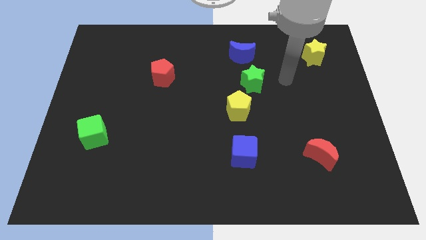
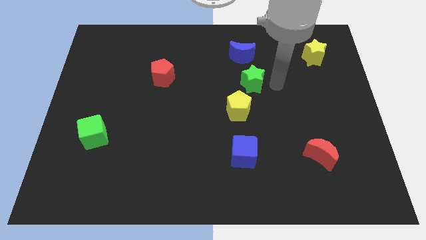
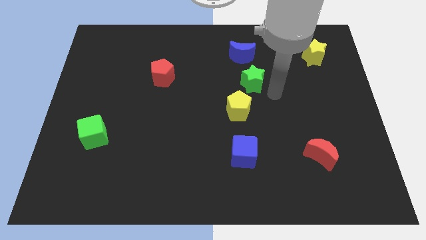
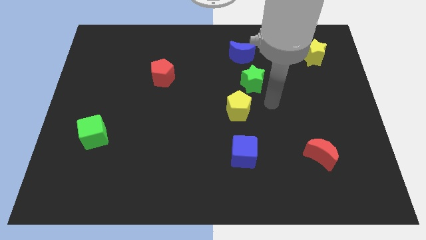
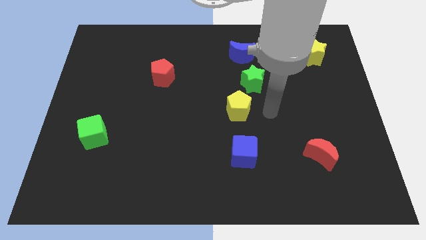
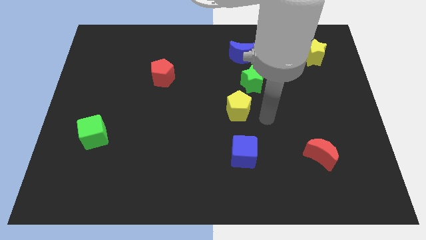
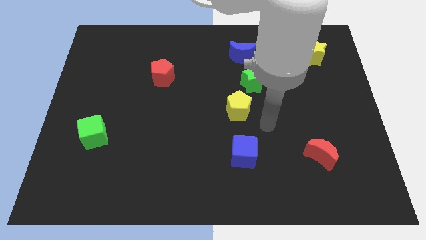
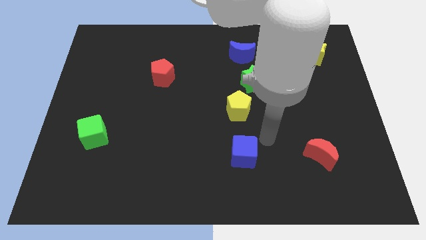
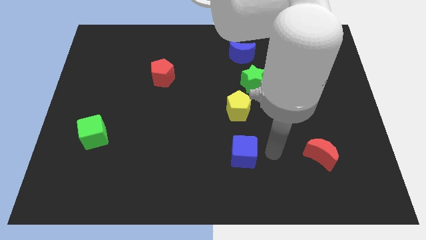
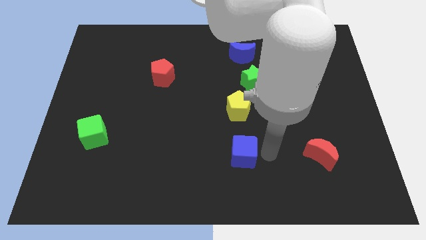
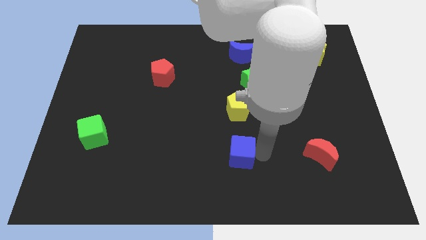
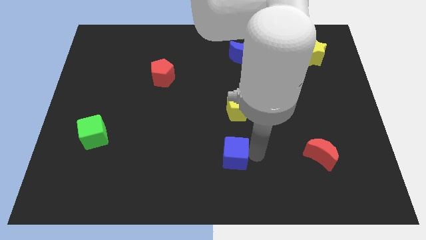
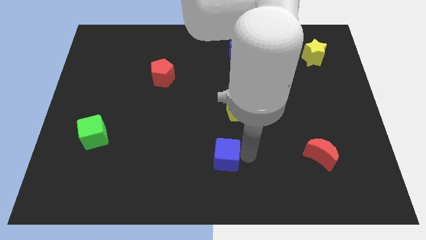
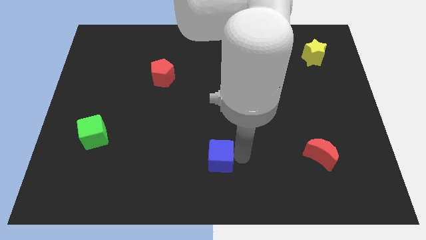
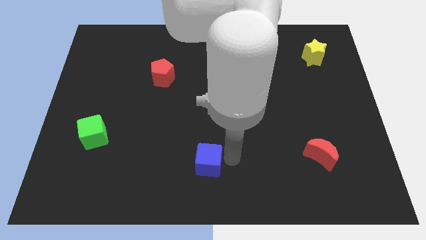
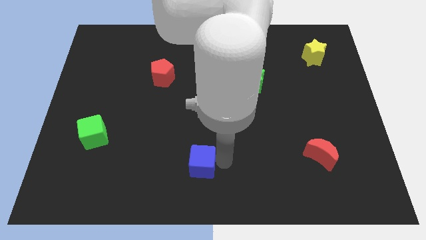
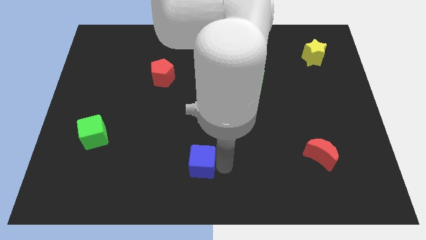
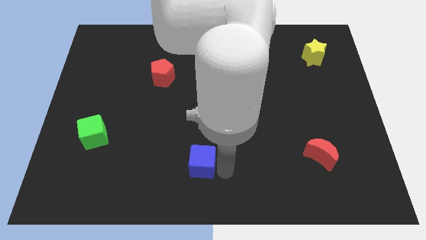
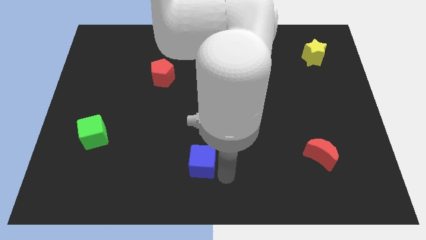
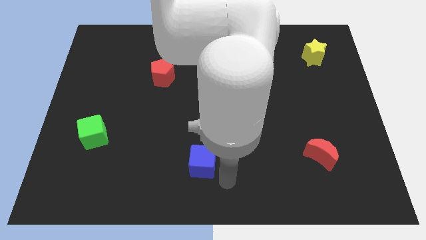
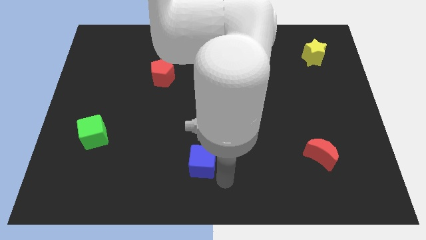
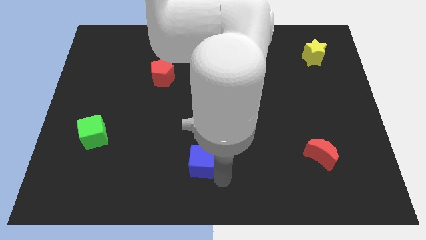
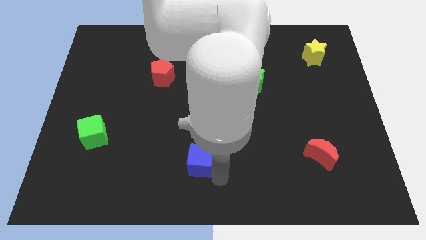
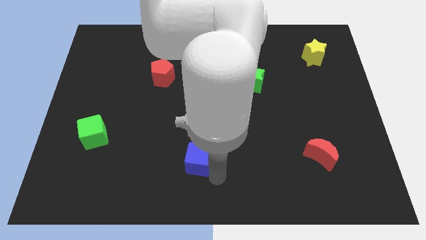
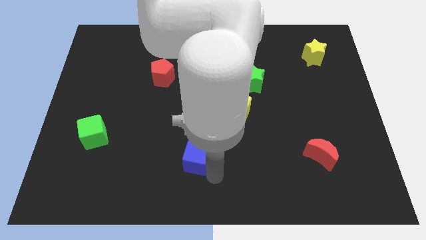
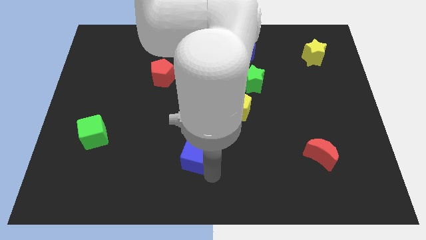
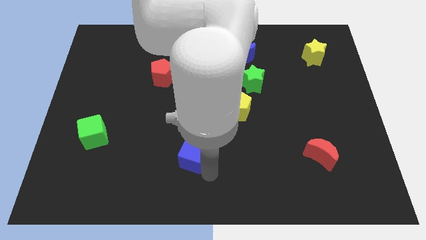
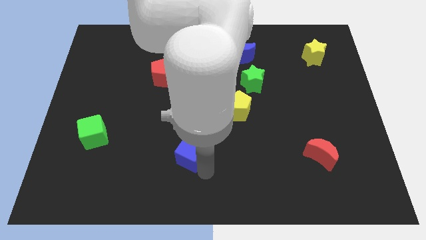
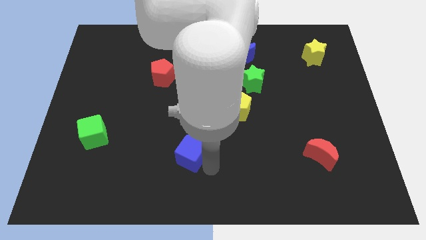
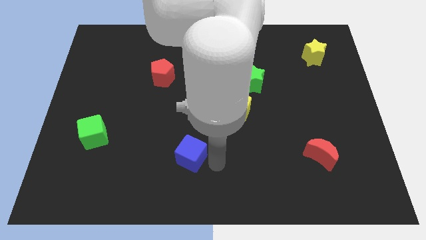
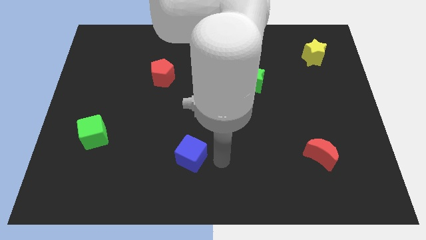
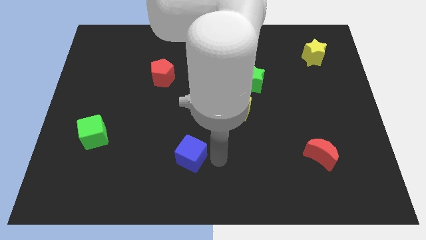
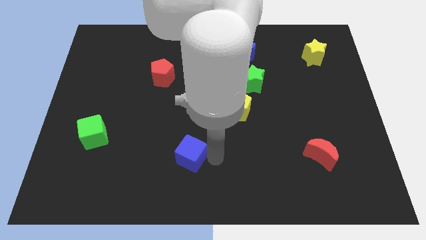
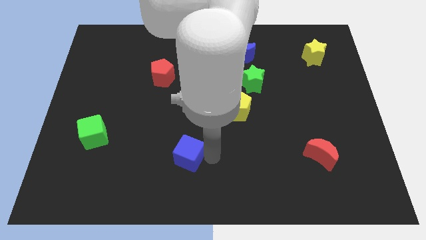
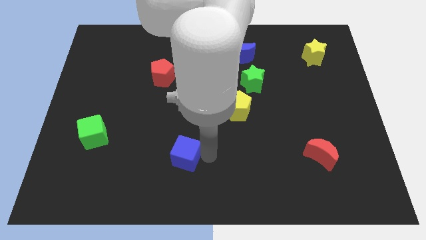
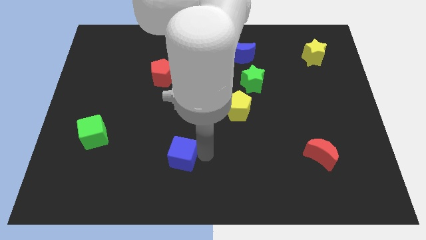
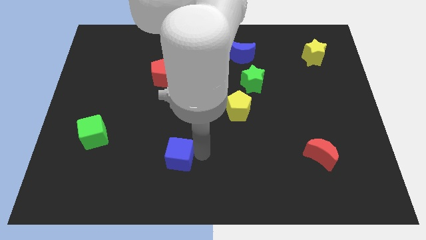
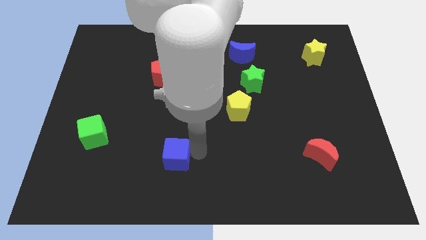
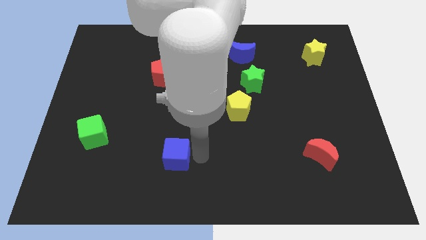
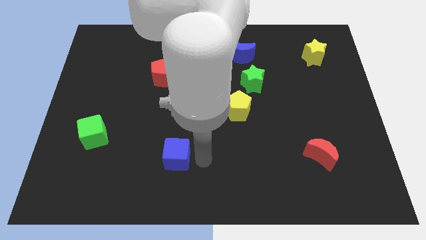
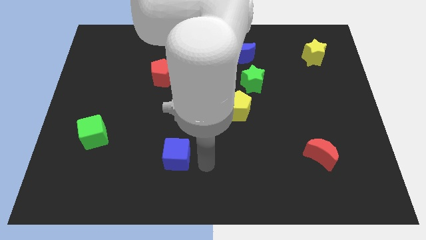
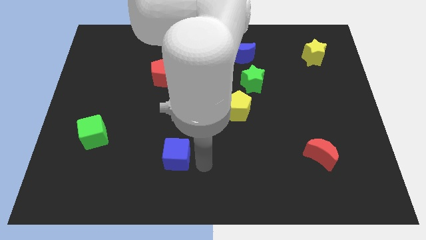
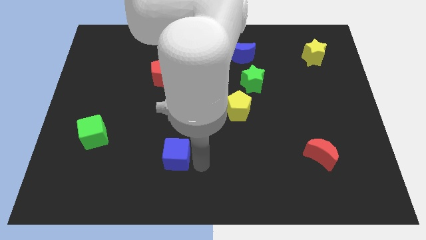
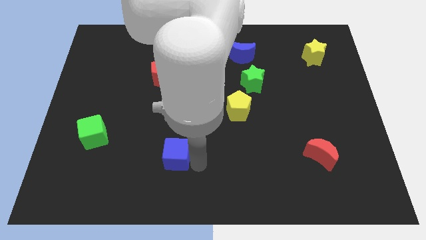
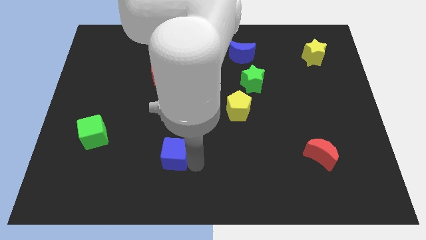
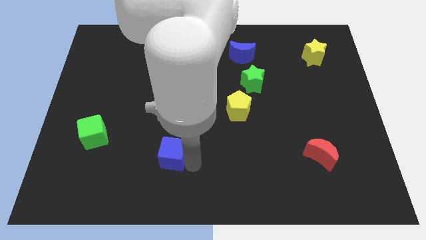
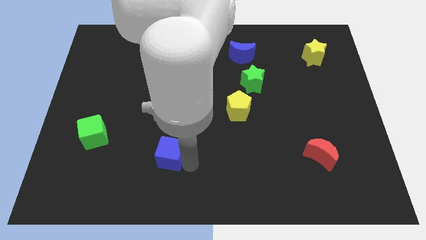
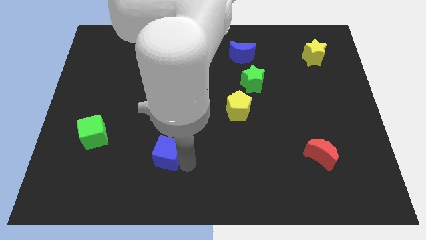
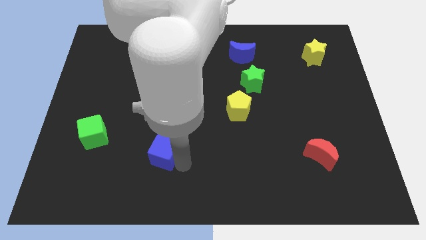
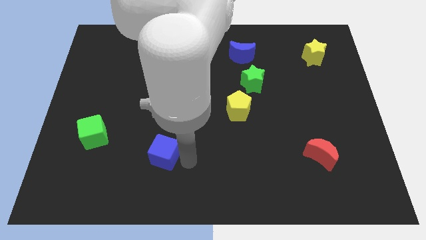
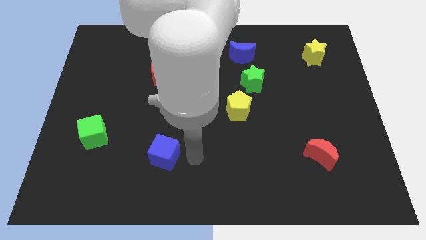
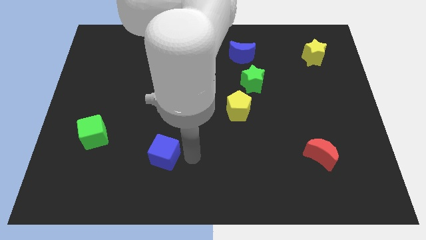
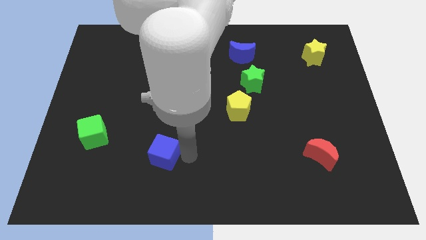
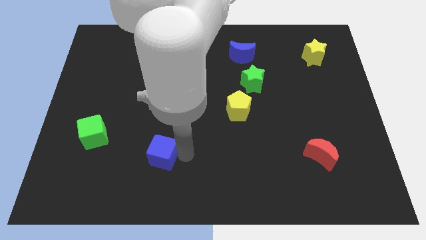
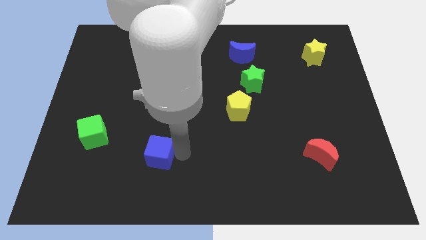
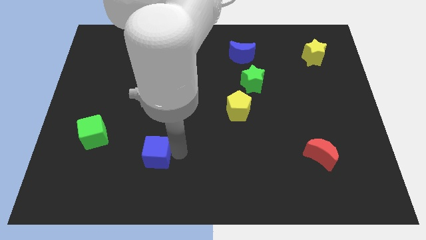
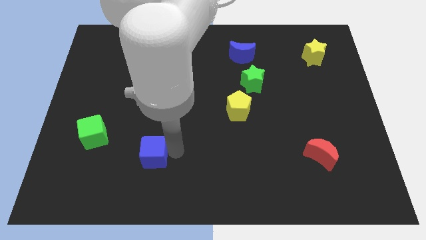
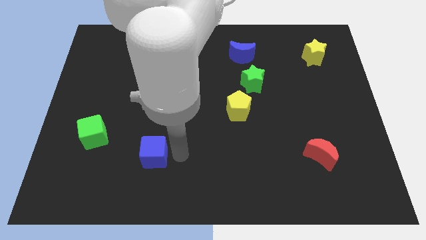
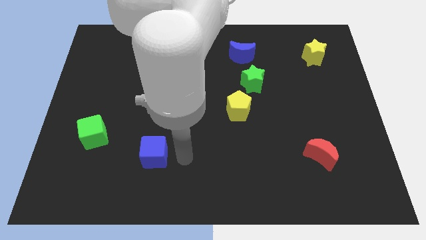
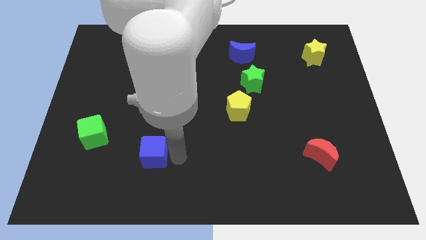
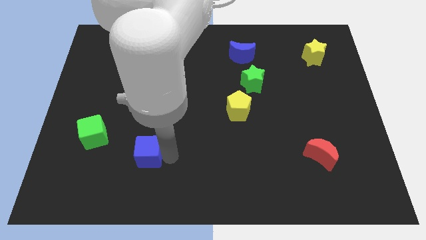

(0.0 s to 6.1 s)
move the blue cube left

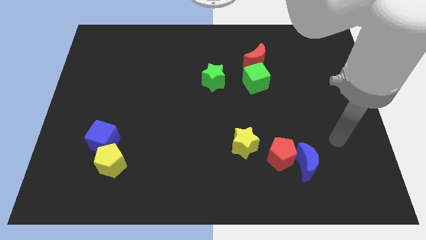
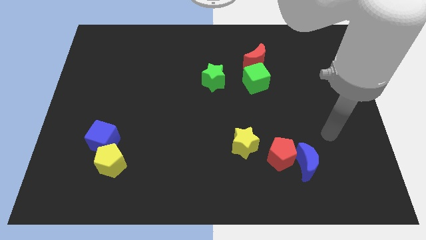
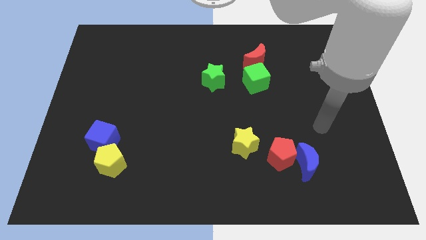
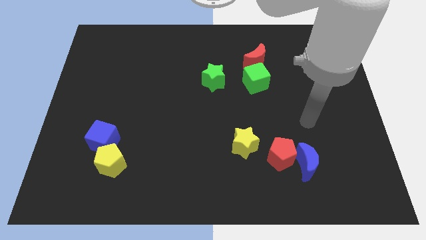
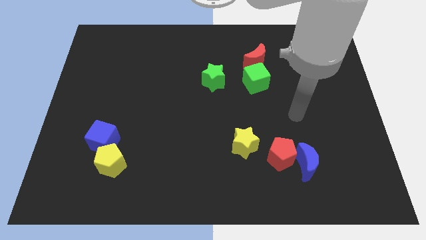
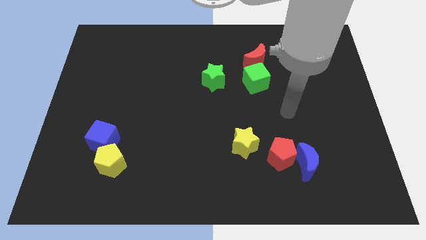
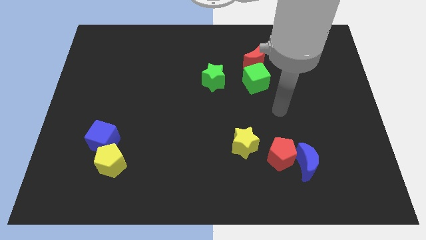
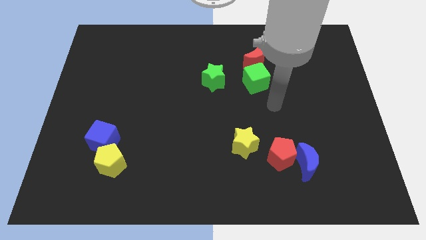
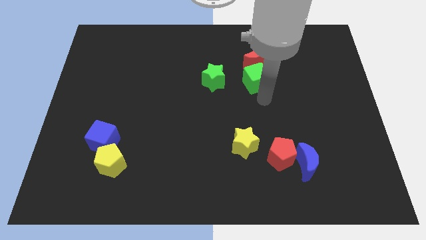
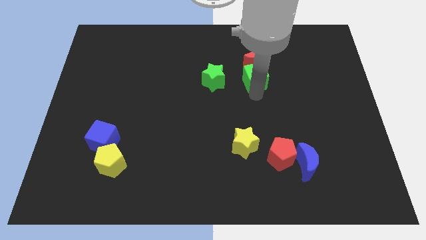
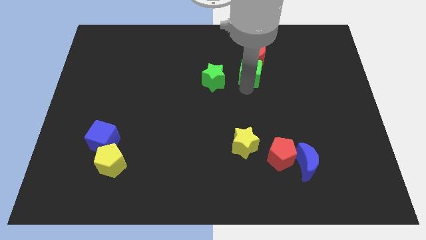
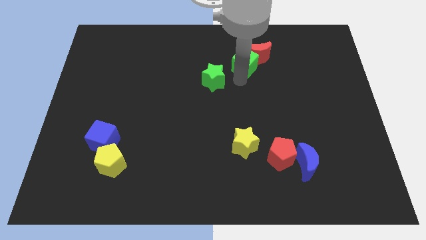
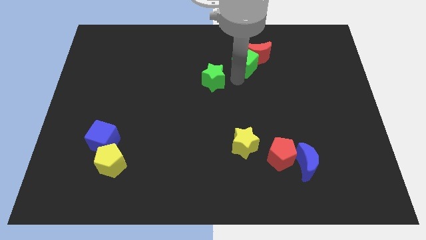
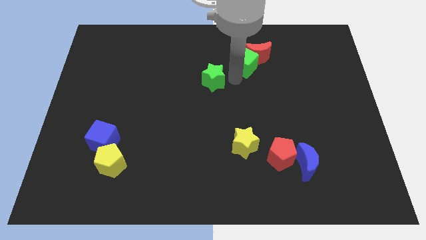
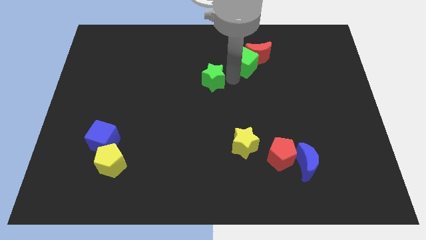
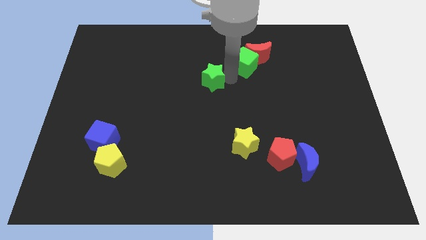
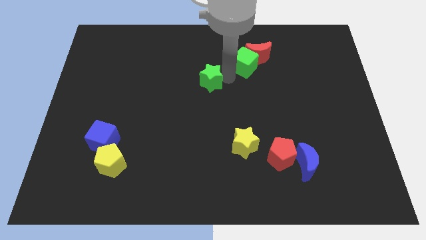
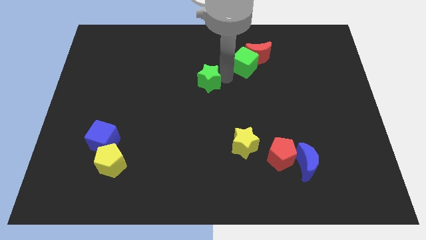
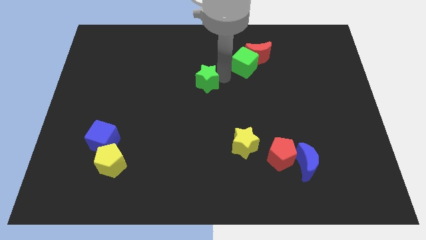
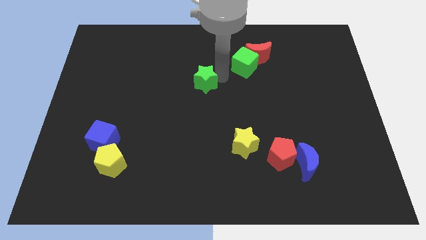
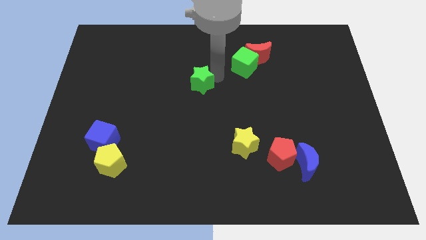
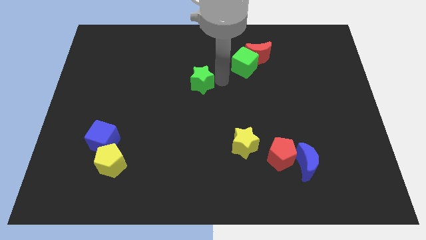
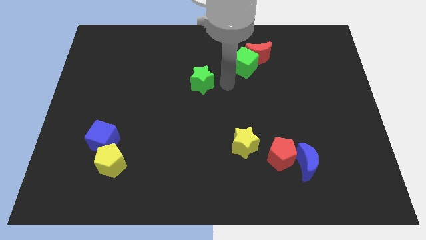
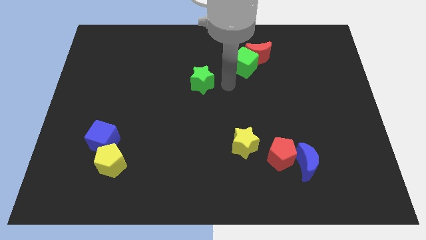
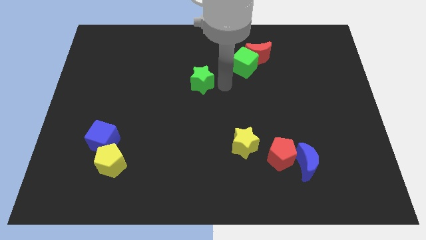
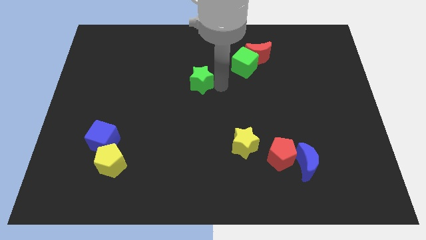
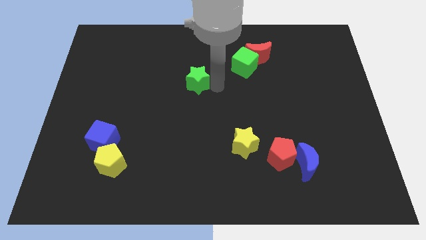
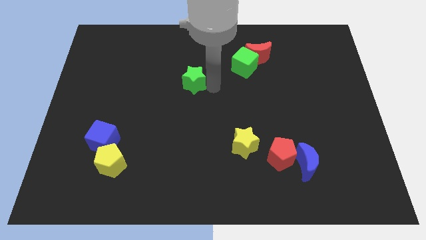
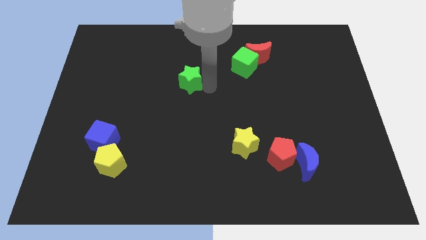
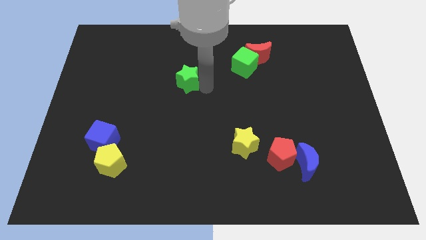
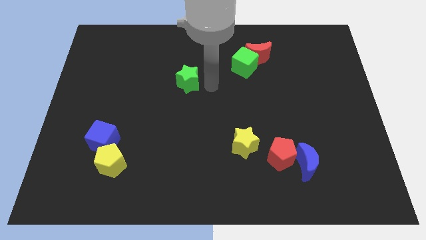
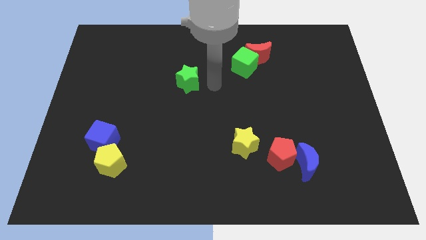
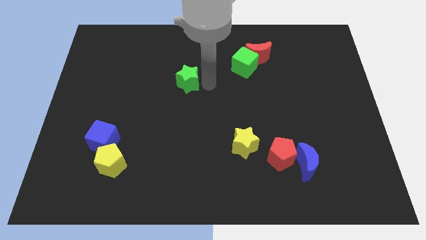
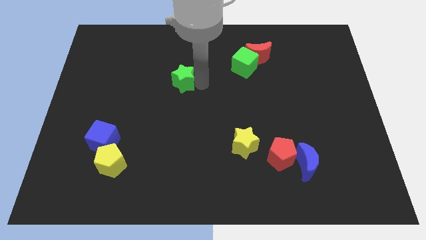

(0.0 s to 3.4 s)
move the green star a little bit to the left
